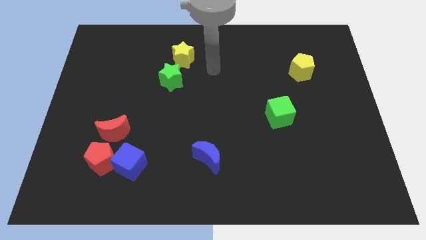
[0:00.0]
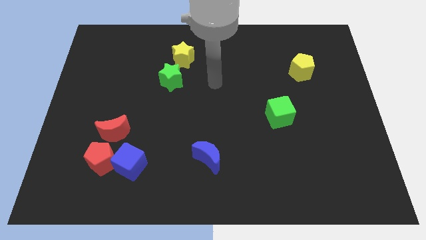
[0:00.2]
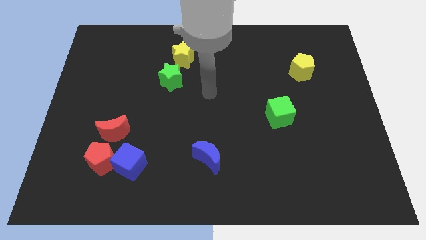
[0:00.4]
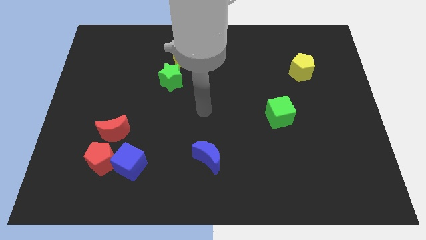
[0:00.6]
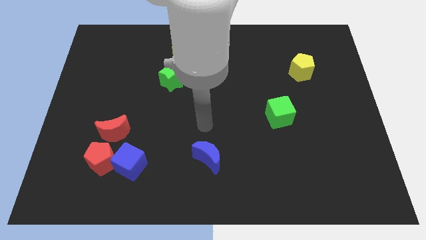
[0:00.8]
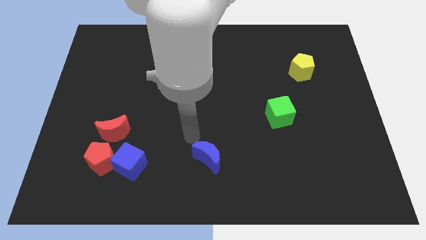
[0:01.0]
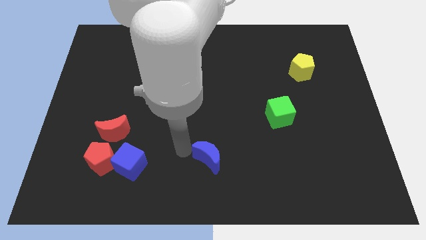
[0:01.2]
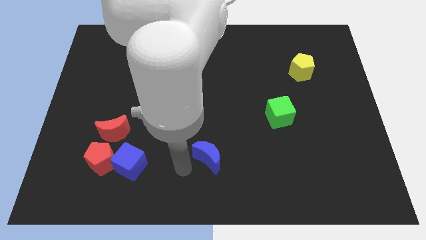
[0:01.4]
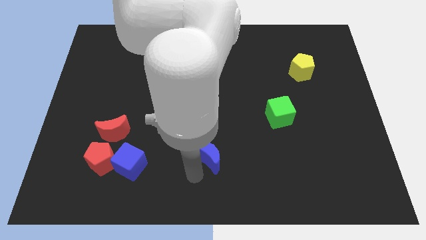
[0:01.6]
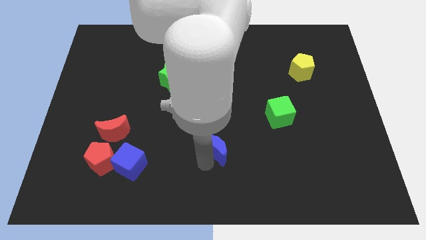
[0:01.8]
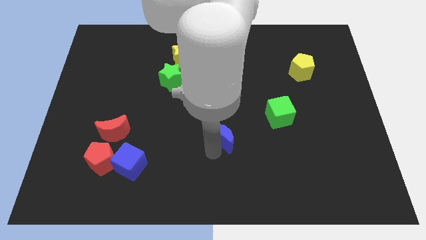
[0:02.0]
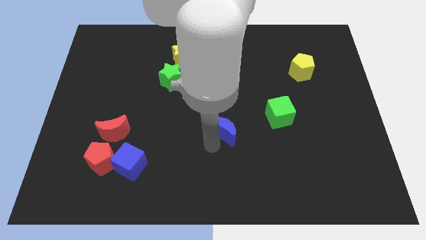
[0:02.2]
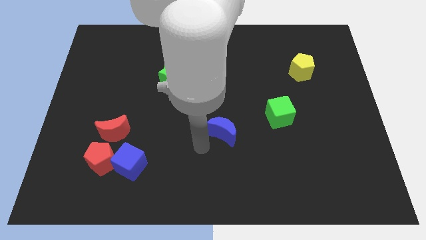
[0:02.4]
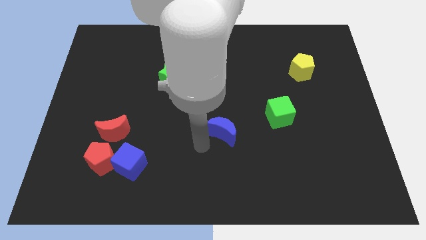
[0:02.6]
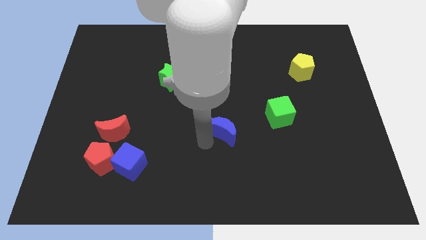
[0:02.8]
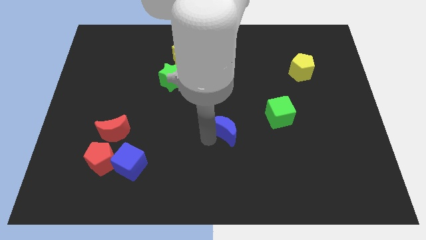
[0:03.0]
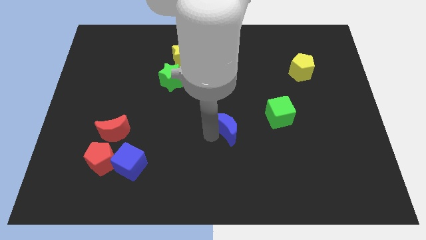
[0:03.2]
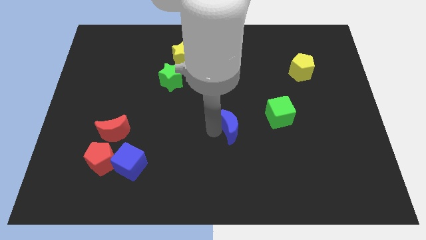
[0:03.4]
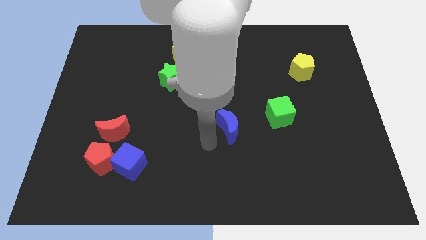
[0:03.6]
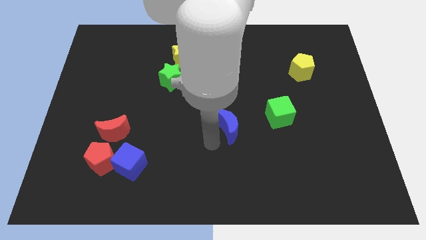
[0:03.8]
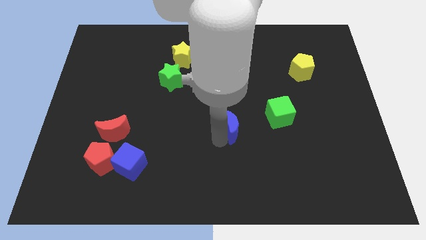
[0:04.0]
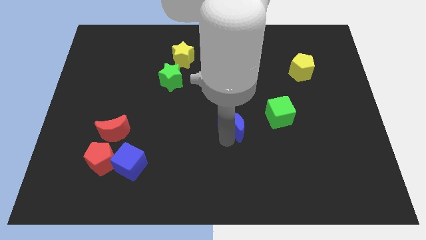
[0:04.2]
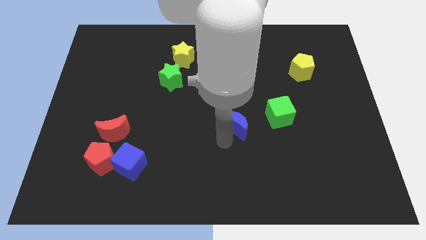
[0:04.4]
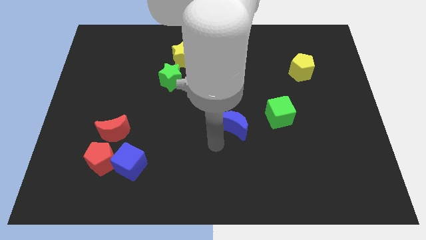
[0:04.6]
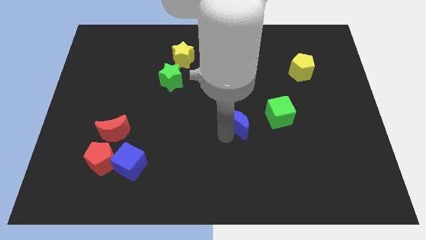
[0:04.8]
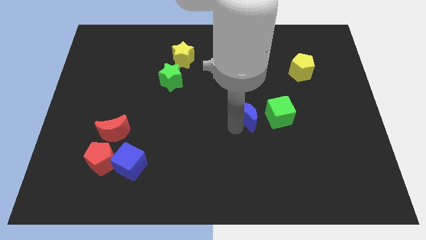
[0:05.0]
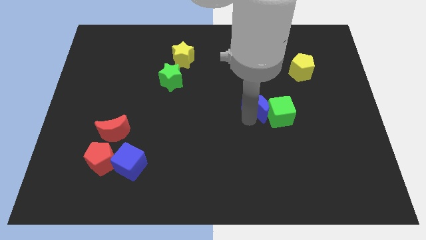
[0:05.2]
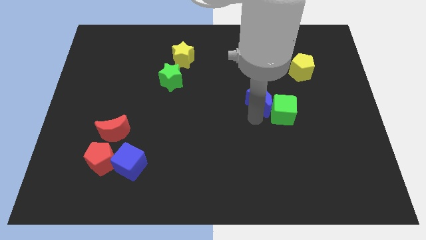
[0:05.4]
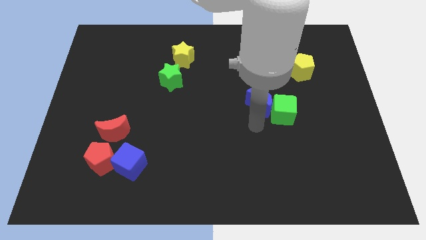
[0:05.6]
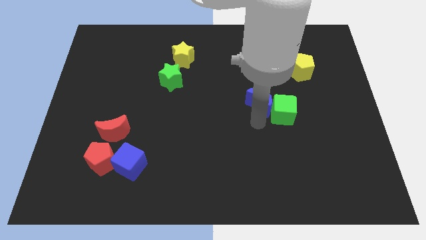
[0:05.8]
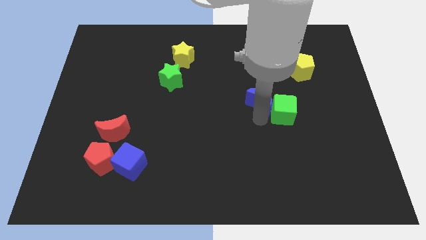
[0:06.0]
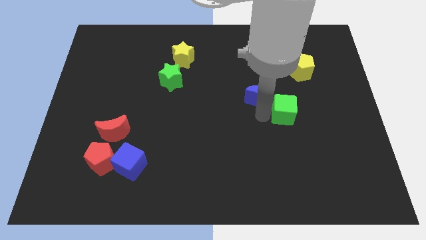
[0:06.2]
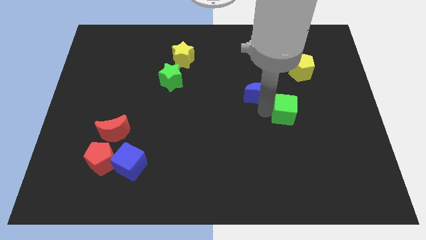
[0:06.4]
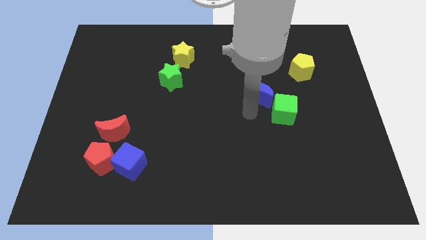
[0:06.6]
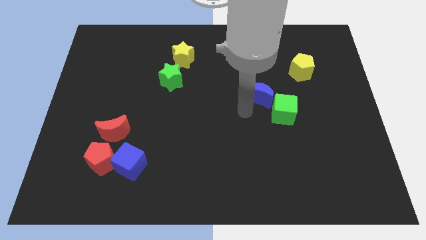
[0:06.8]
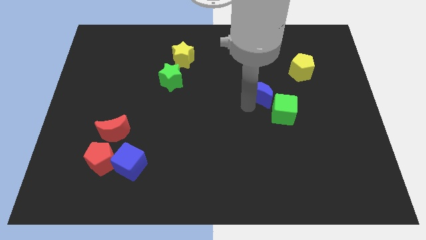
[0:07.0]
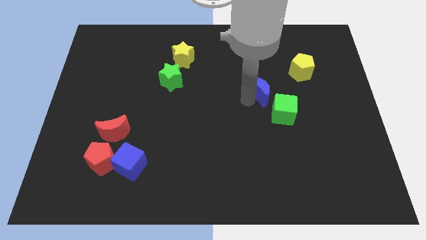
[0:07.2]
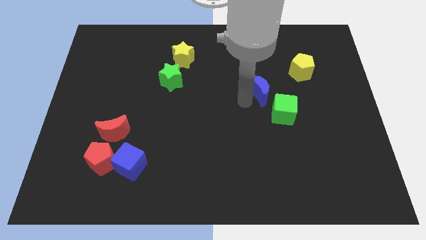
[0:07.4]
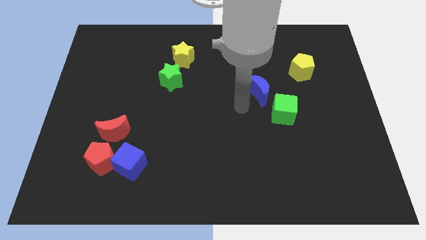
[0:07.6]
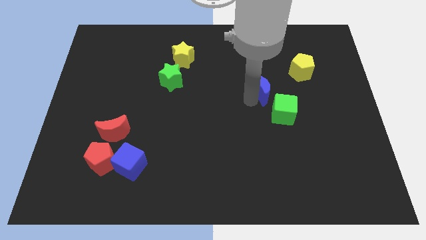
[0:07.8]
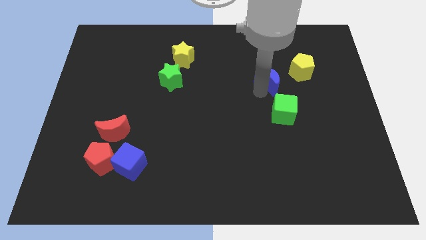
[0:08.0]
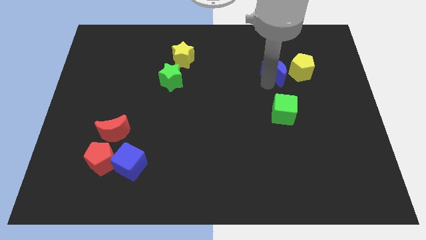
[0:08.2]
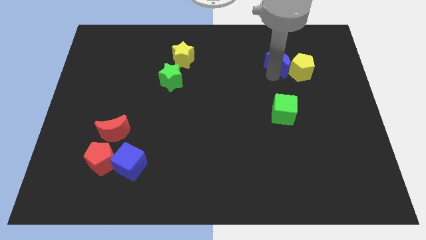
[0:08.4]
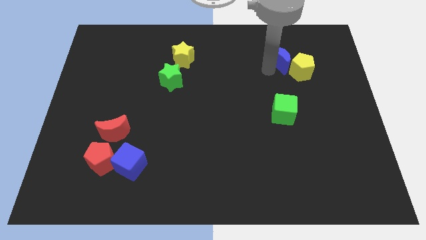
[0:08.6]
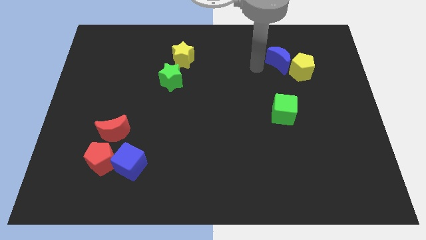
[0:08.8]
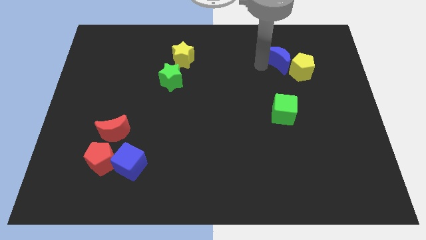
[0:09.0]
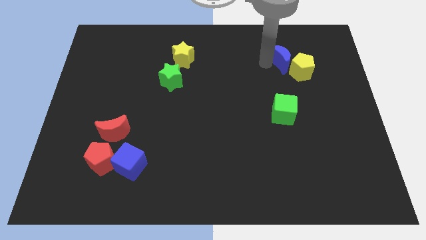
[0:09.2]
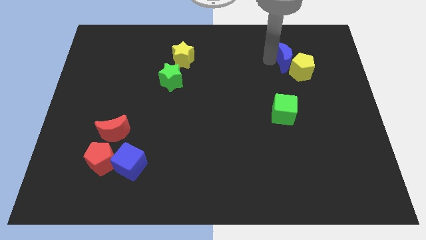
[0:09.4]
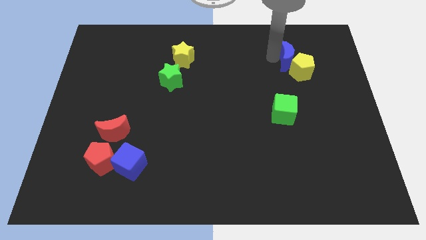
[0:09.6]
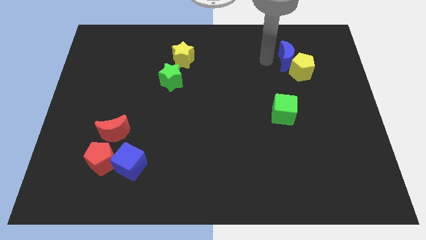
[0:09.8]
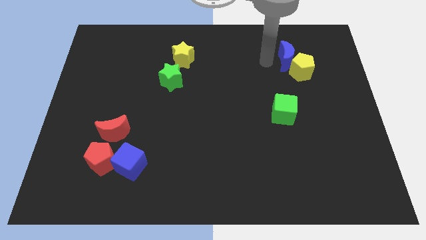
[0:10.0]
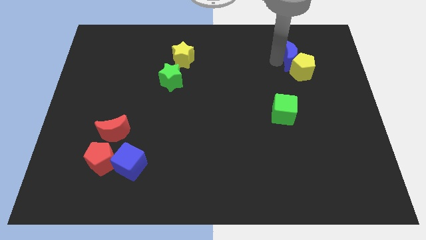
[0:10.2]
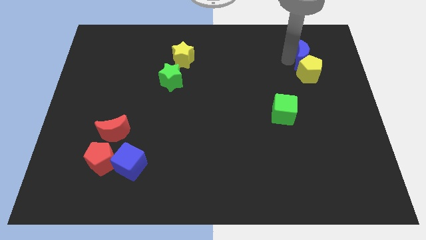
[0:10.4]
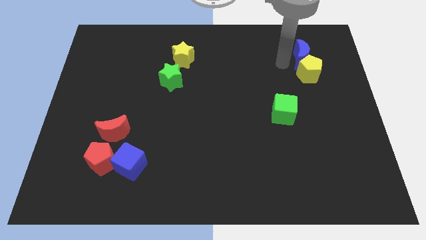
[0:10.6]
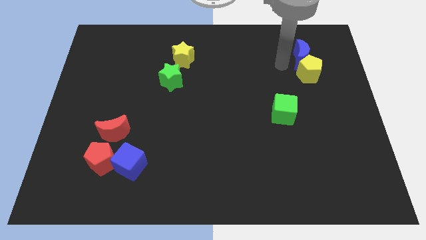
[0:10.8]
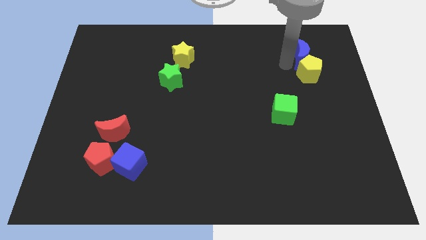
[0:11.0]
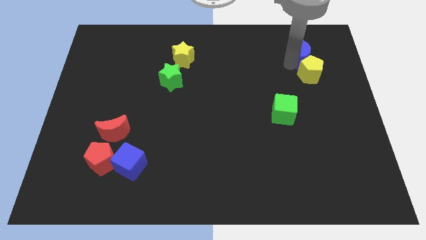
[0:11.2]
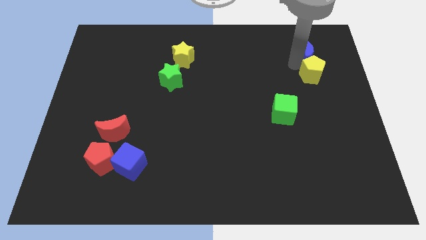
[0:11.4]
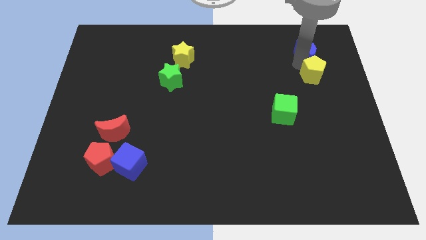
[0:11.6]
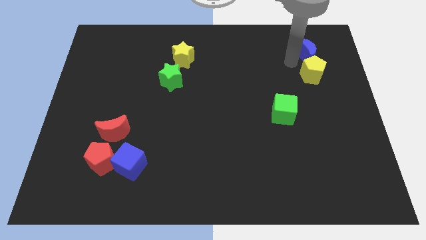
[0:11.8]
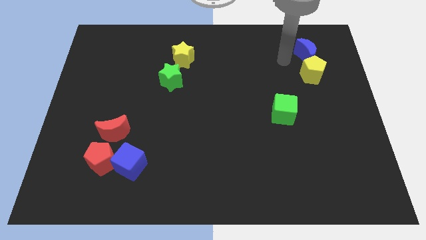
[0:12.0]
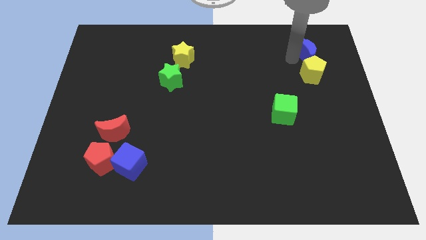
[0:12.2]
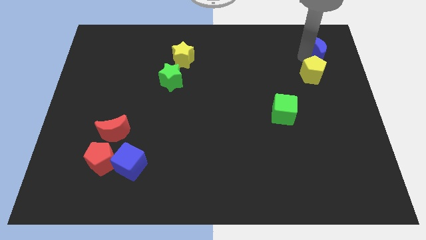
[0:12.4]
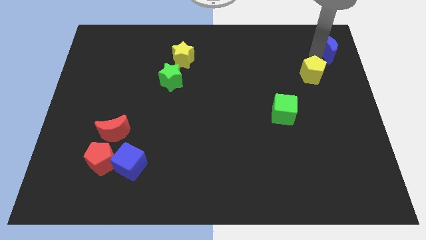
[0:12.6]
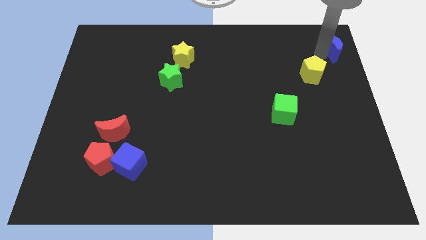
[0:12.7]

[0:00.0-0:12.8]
push the blue moon to the top right
